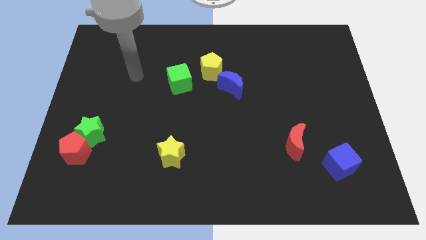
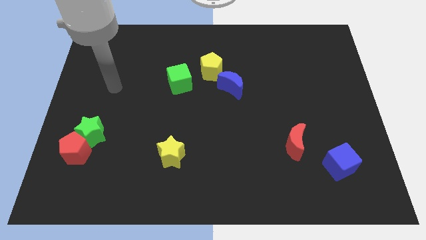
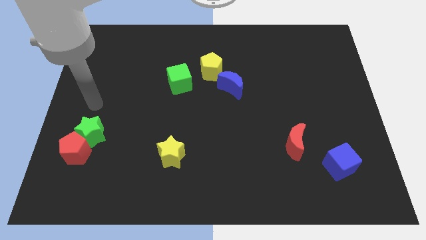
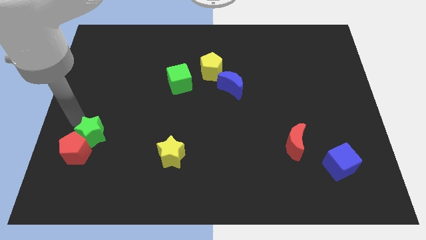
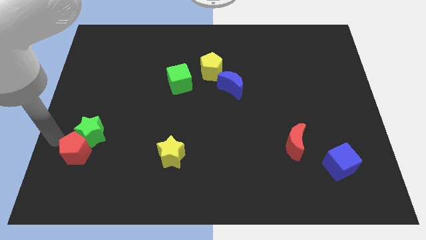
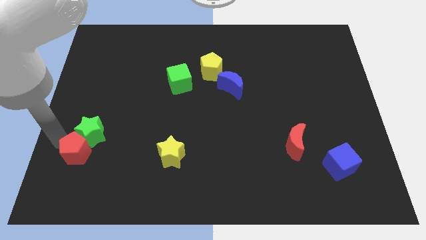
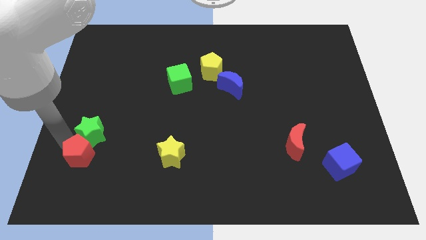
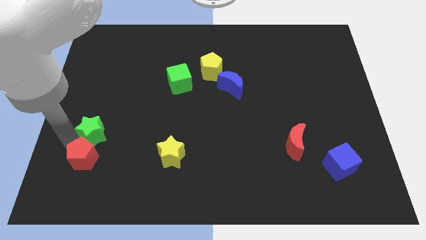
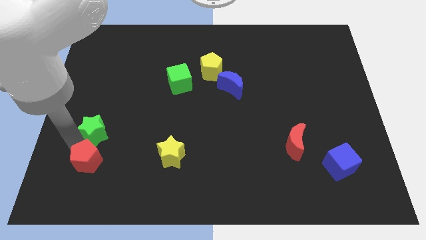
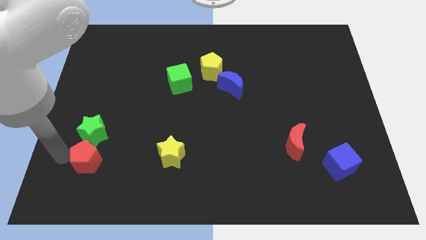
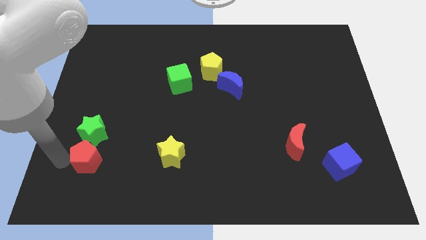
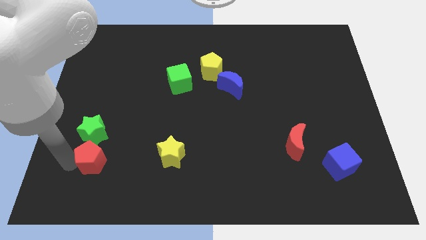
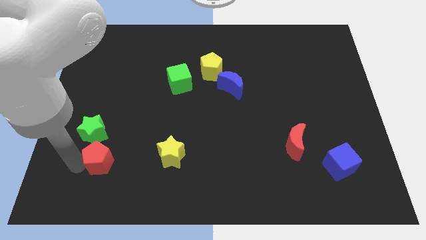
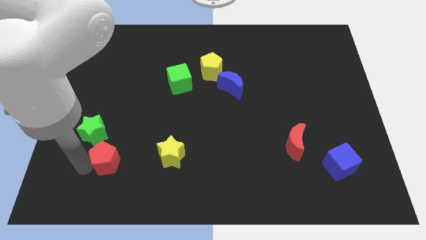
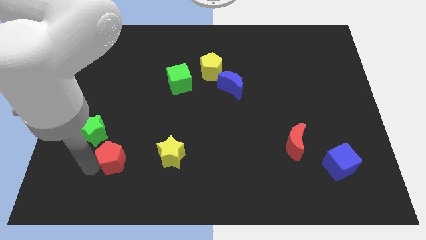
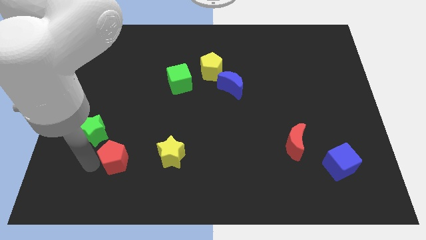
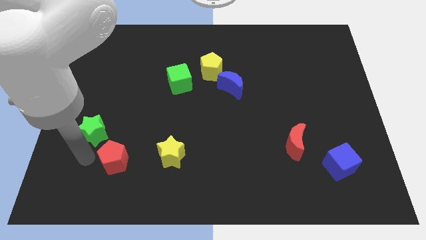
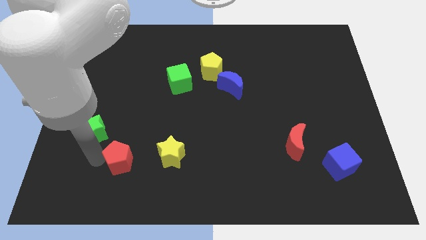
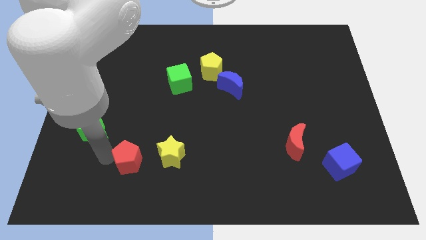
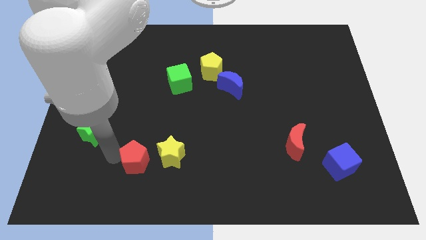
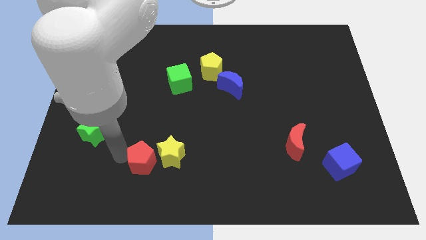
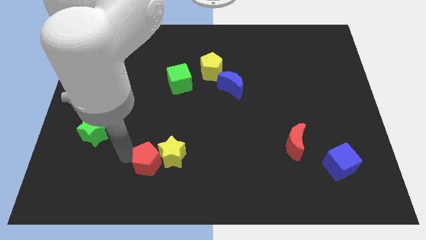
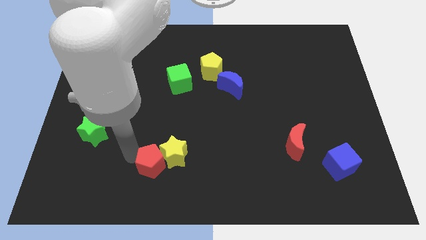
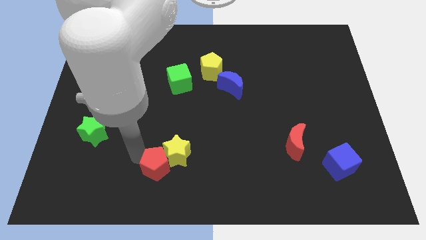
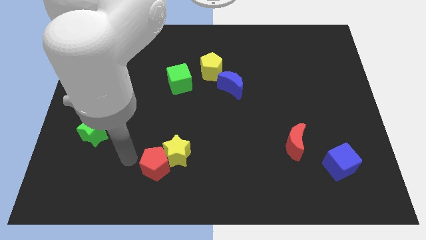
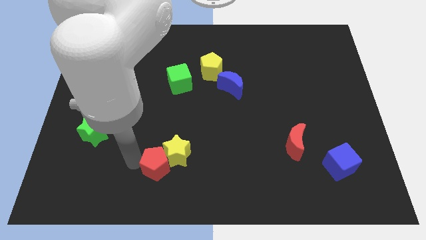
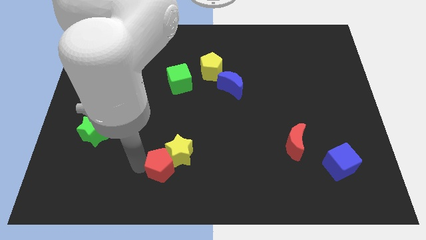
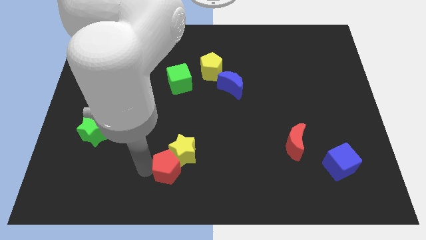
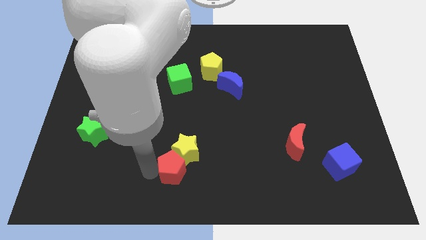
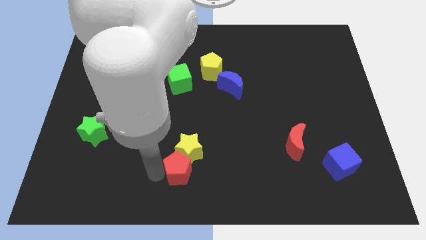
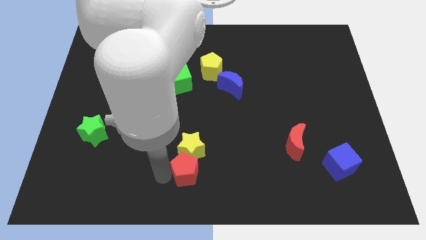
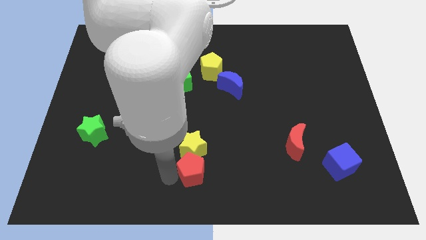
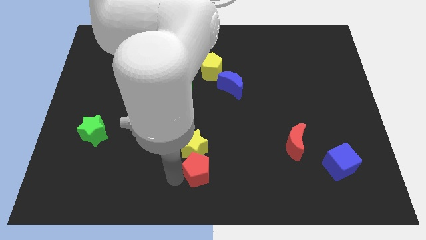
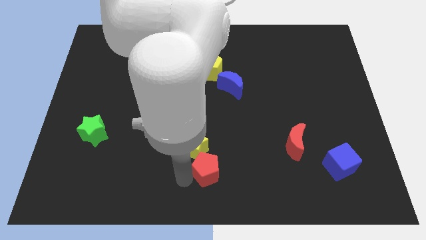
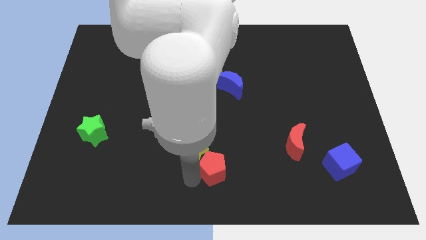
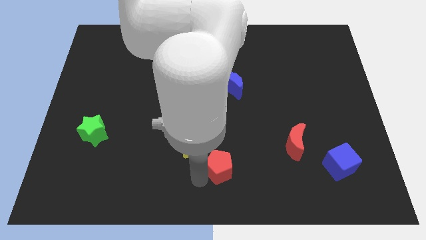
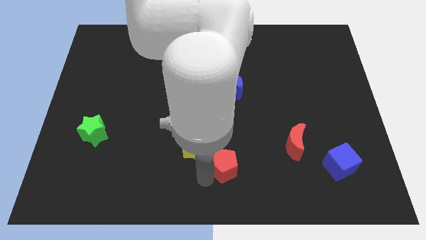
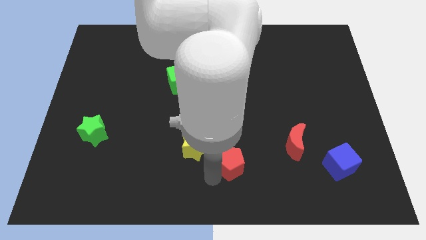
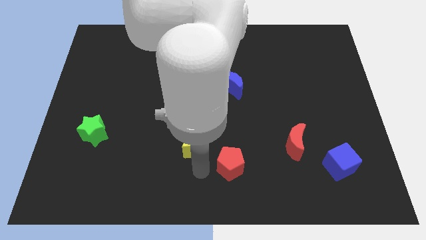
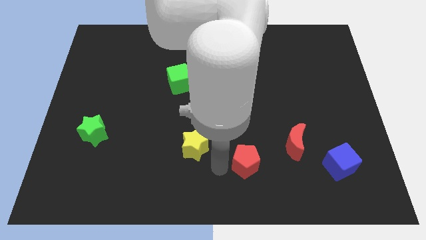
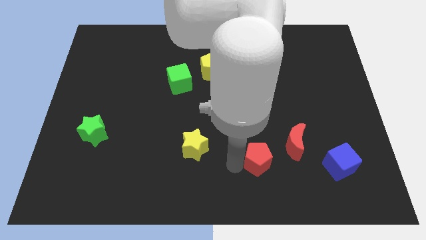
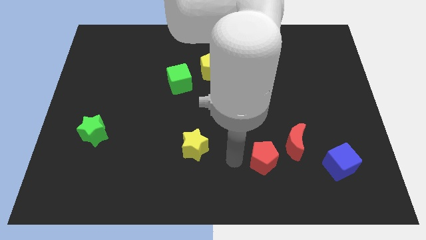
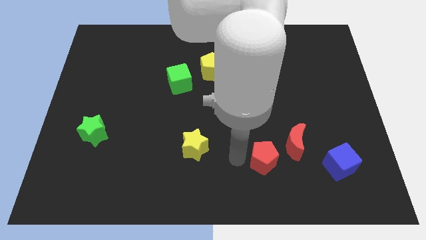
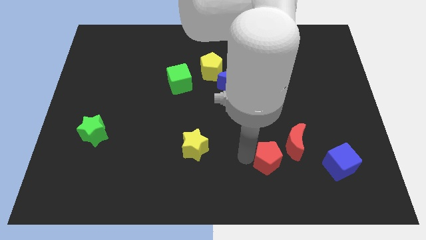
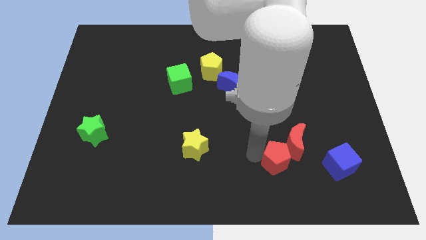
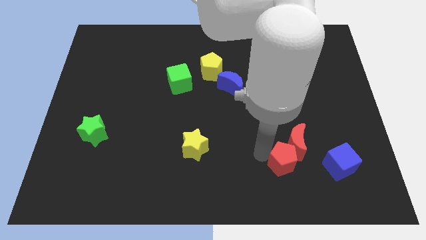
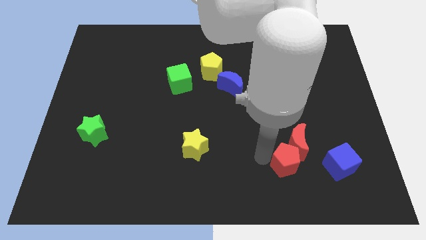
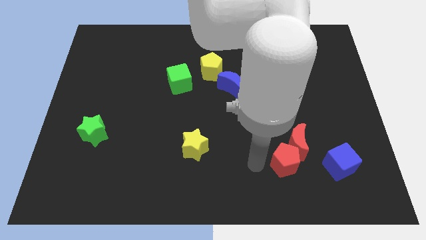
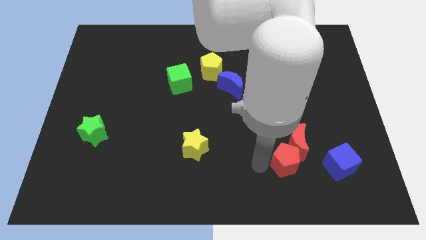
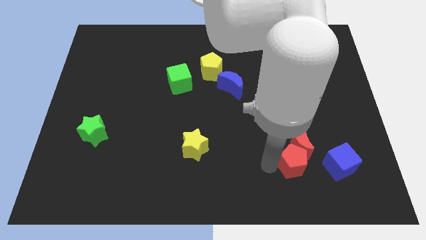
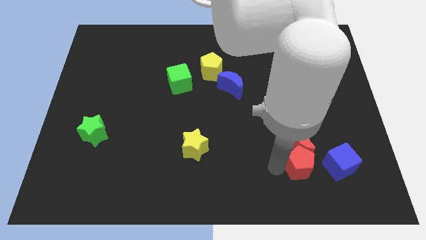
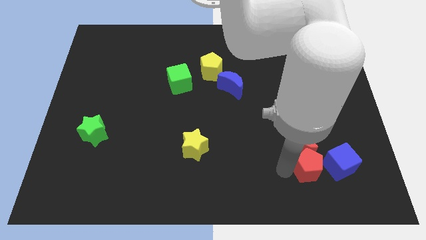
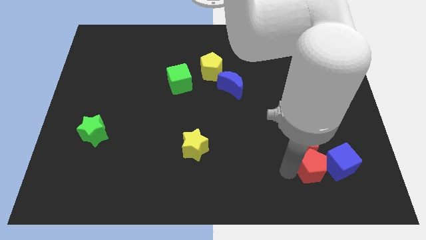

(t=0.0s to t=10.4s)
move the red pentagon towards the blue cube

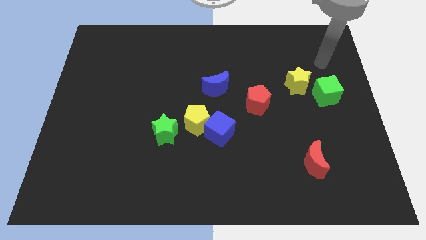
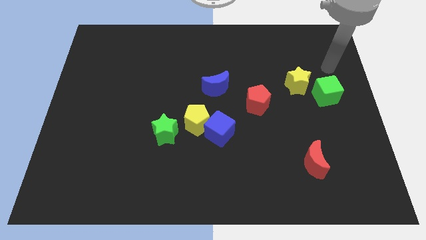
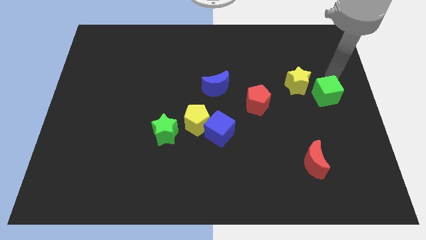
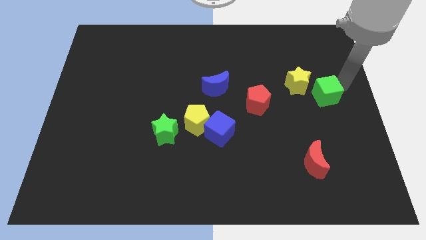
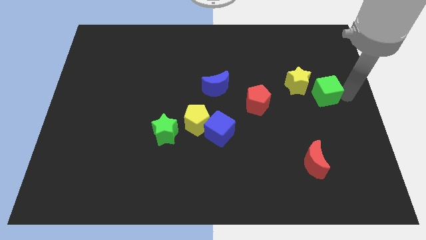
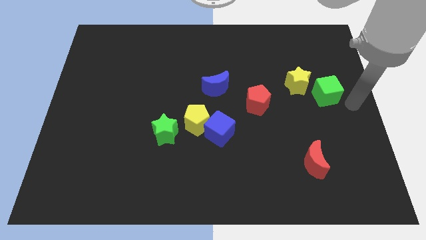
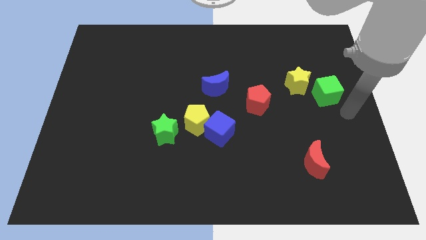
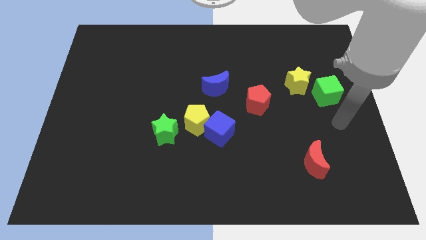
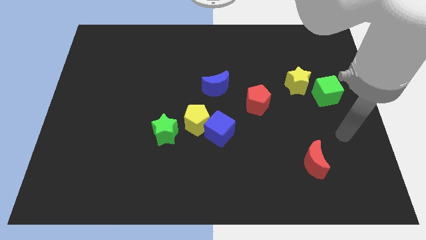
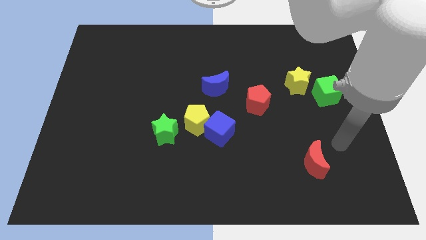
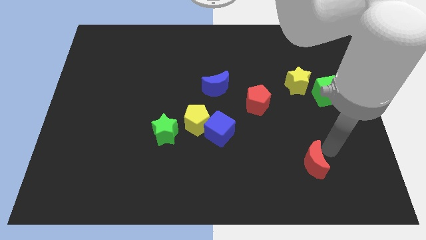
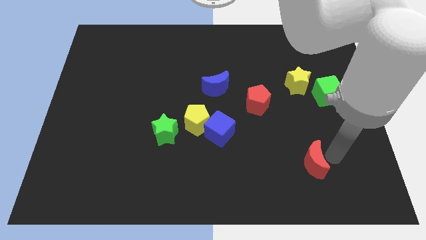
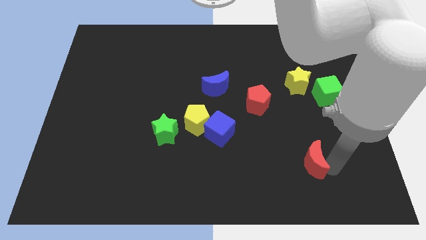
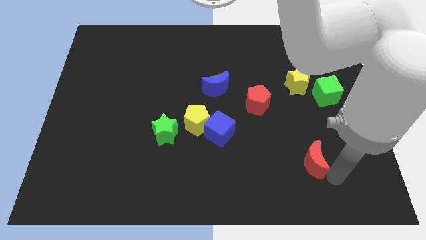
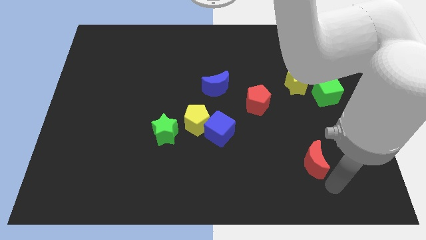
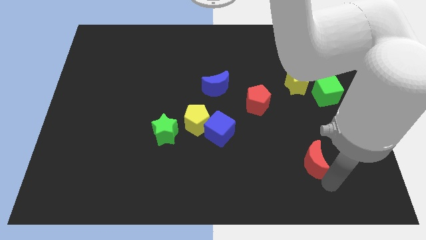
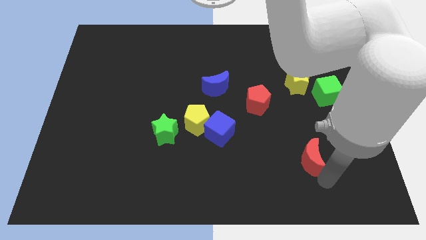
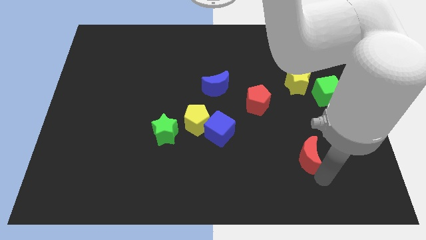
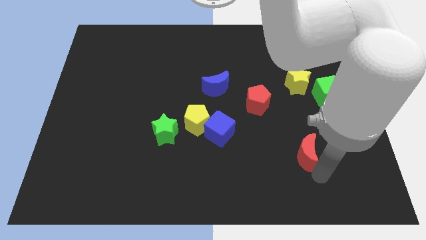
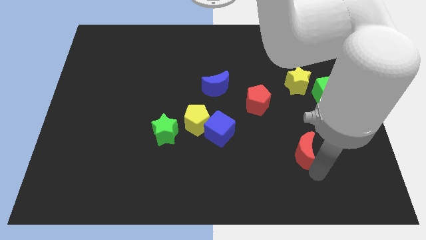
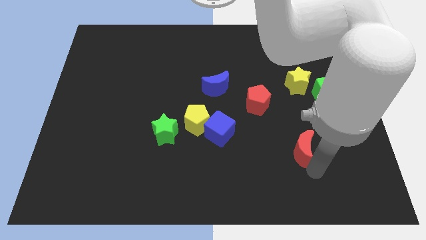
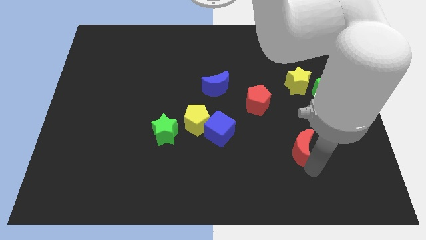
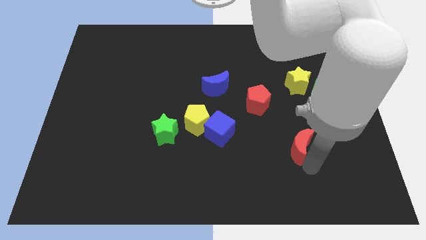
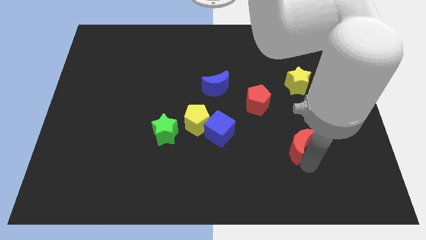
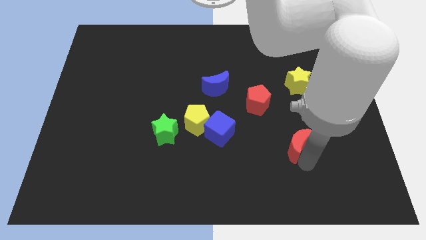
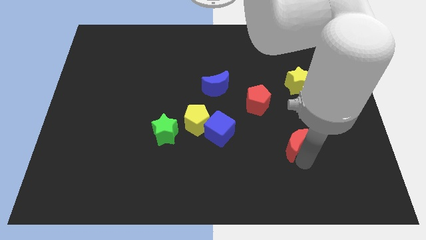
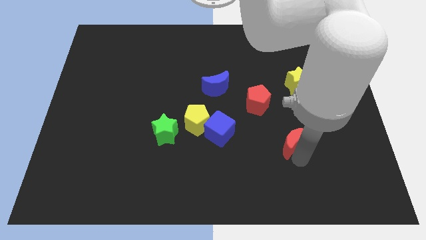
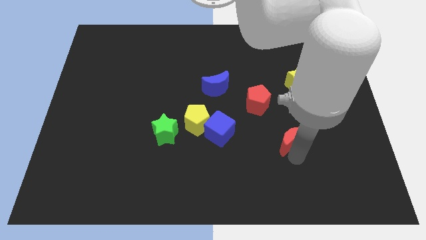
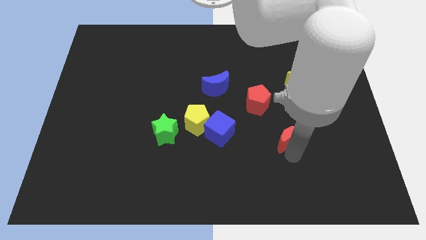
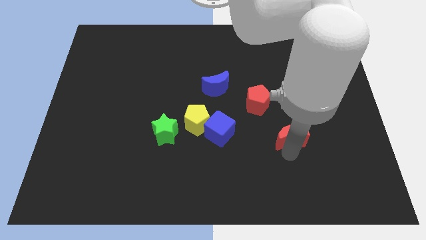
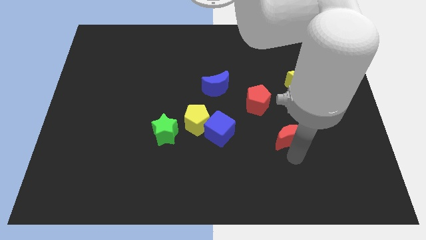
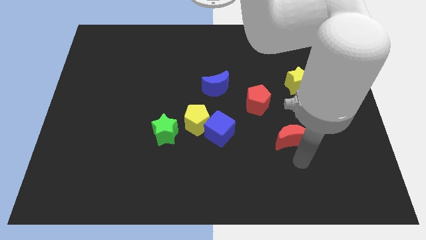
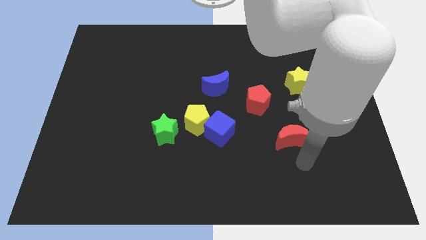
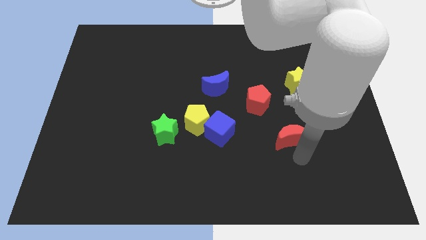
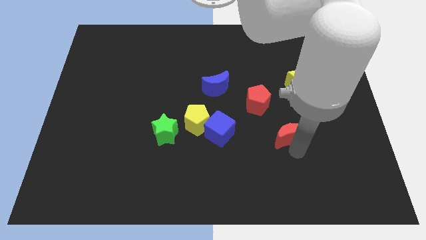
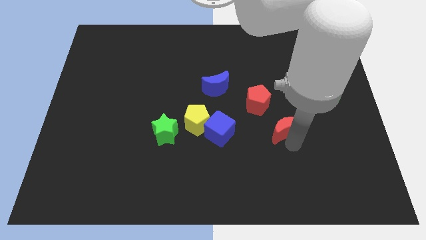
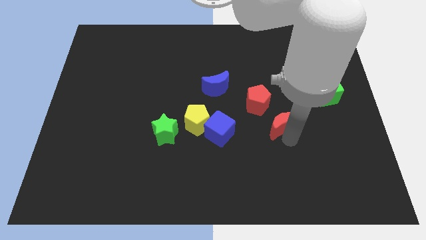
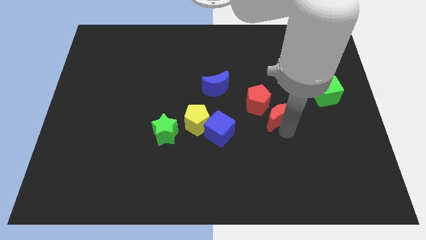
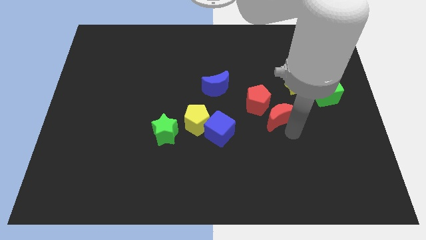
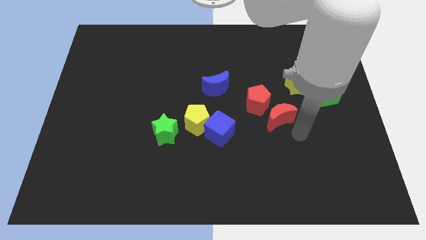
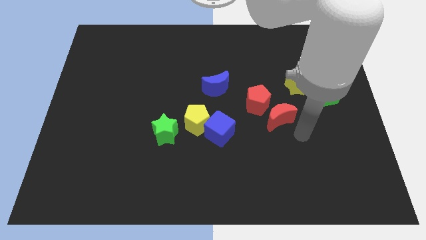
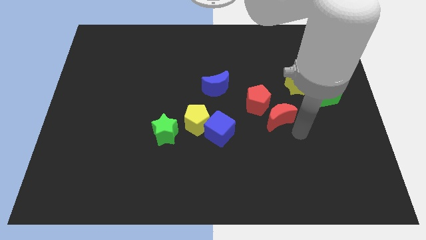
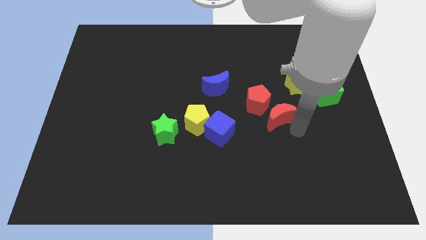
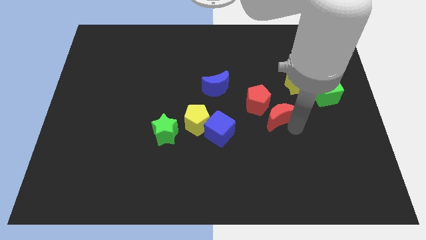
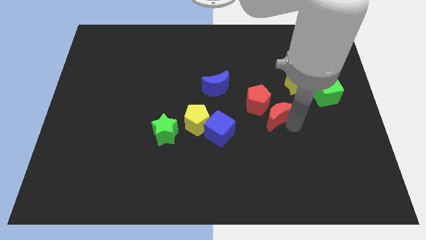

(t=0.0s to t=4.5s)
move the red moon close to the red pentagon
